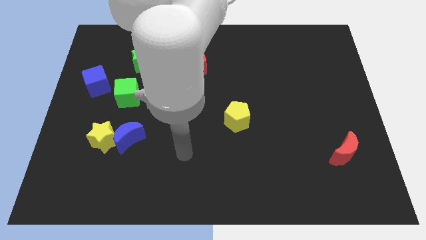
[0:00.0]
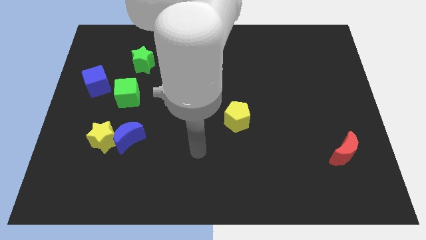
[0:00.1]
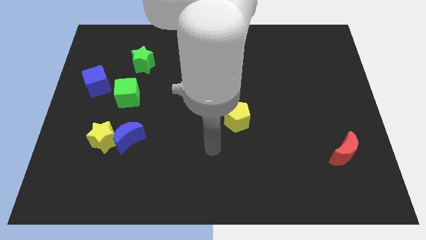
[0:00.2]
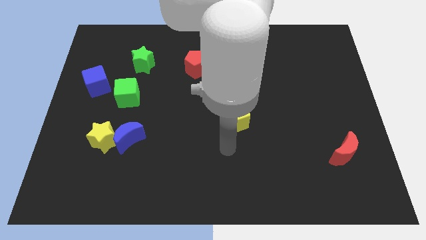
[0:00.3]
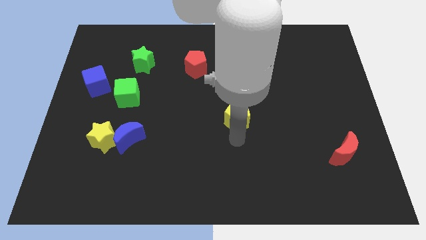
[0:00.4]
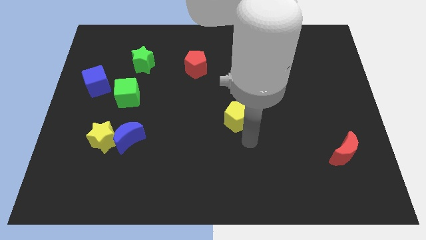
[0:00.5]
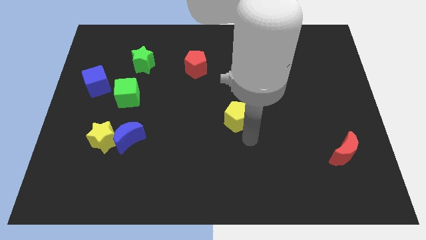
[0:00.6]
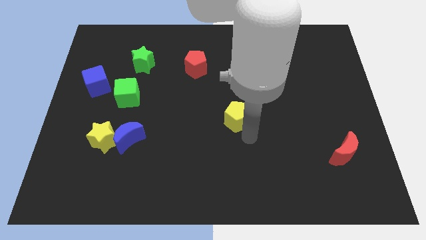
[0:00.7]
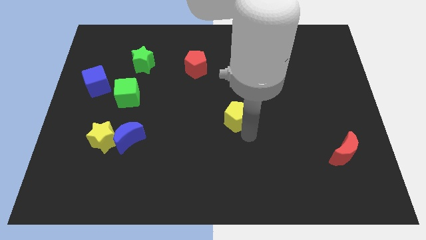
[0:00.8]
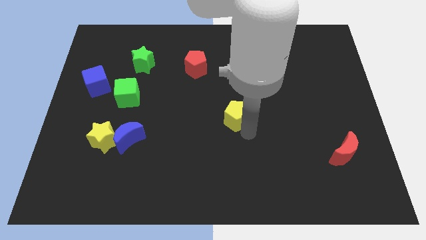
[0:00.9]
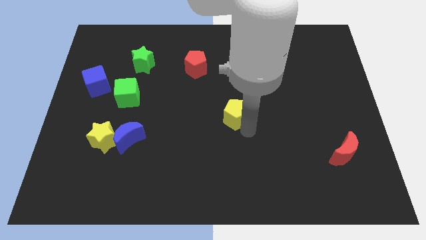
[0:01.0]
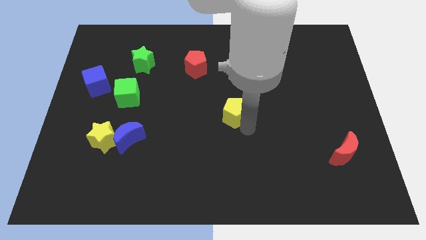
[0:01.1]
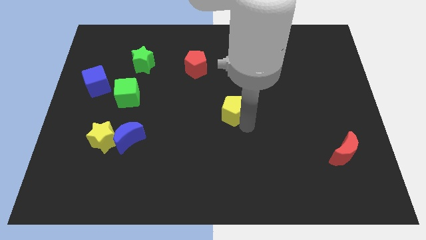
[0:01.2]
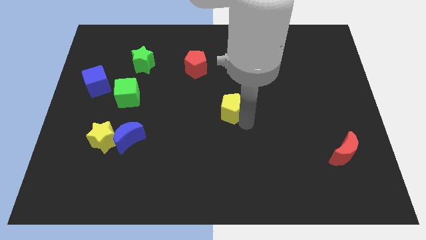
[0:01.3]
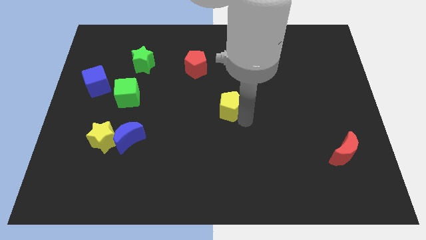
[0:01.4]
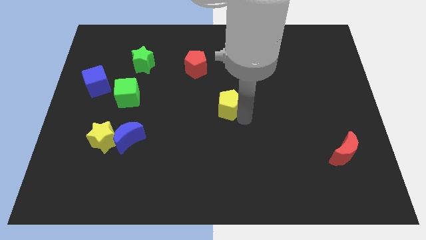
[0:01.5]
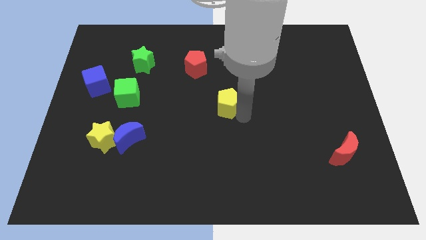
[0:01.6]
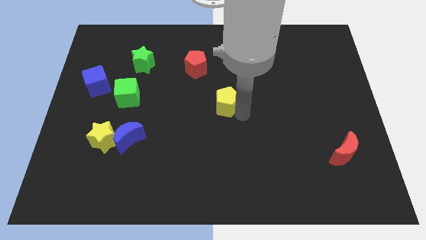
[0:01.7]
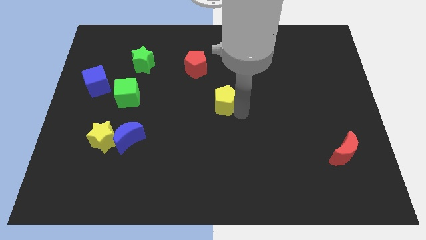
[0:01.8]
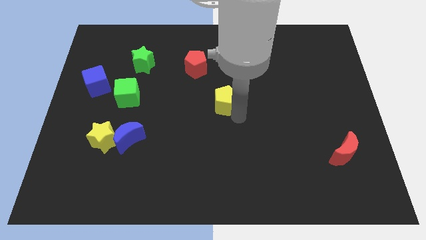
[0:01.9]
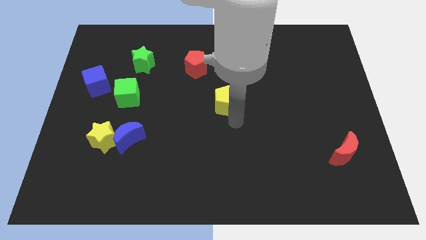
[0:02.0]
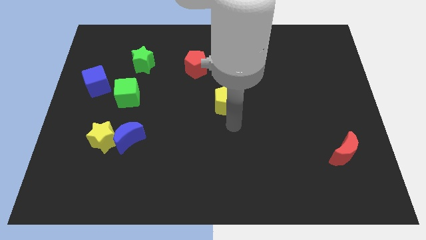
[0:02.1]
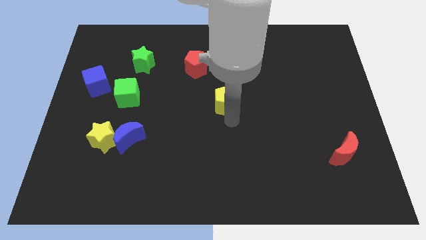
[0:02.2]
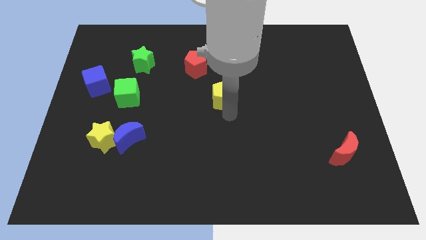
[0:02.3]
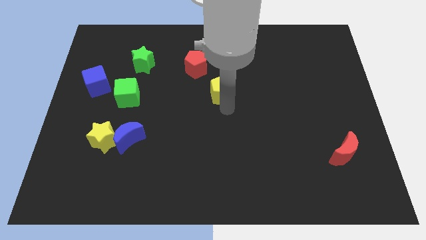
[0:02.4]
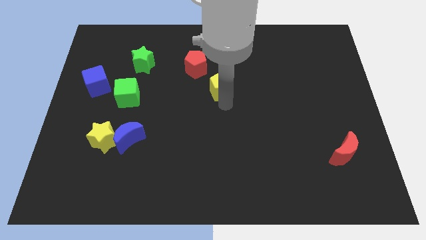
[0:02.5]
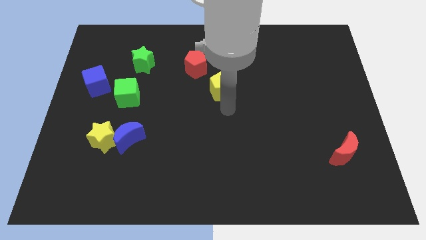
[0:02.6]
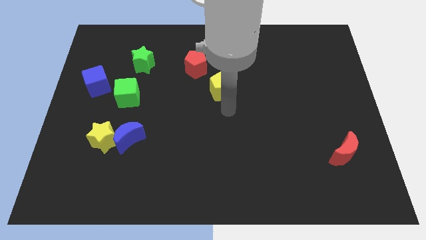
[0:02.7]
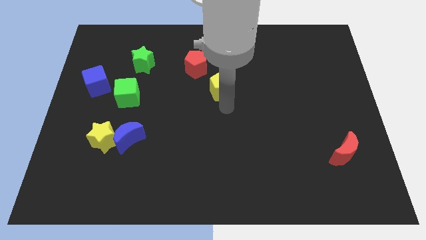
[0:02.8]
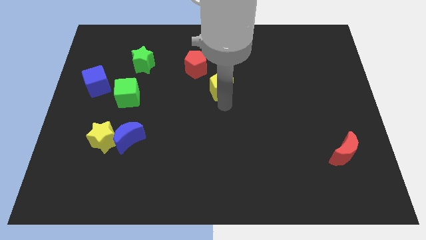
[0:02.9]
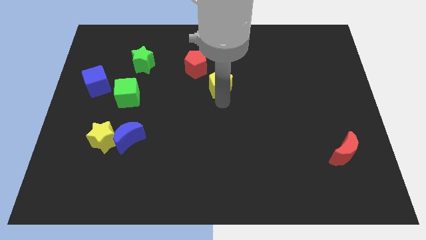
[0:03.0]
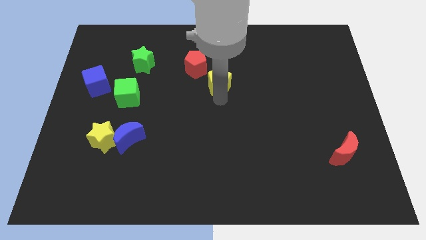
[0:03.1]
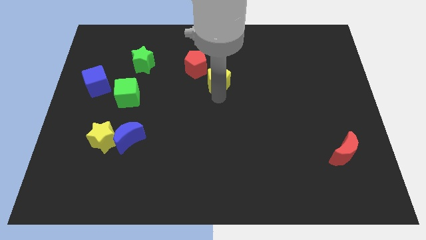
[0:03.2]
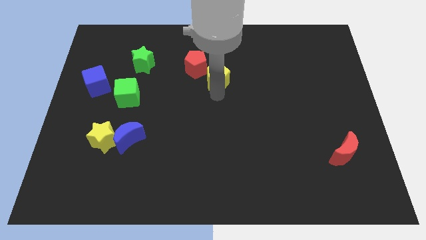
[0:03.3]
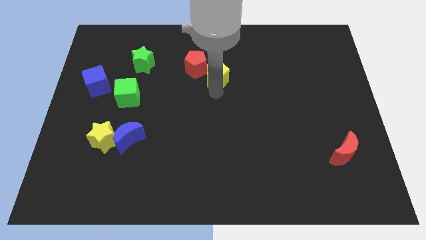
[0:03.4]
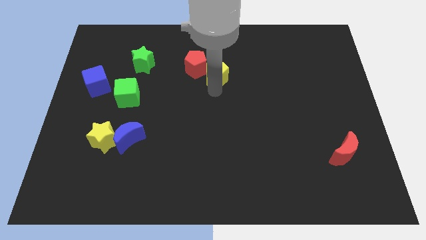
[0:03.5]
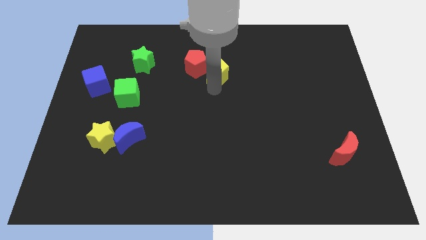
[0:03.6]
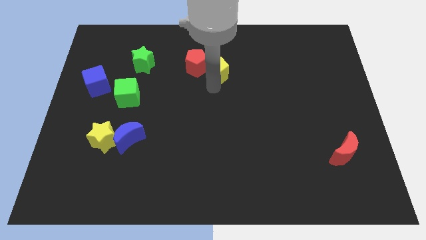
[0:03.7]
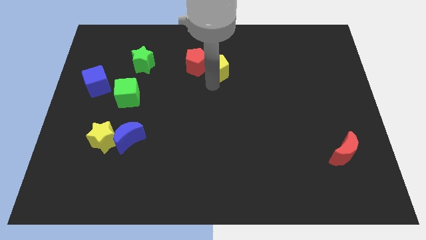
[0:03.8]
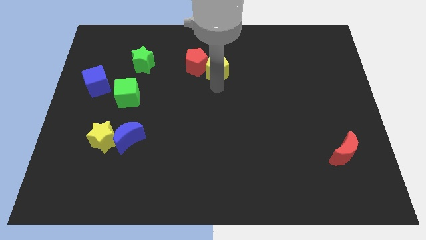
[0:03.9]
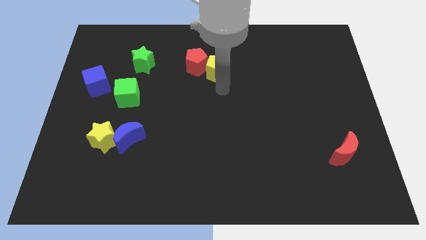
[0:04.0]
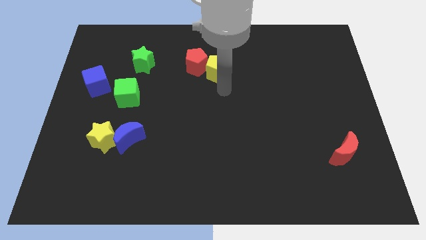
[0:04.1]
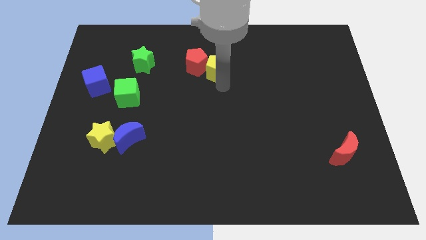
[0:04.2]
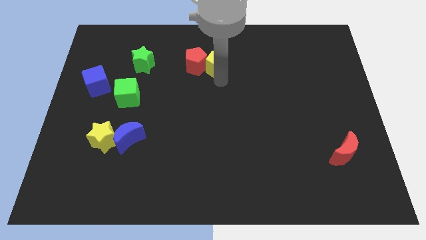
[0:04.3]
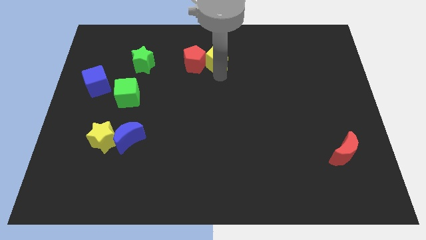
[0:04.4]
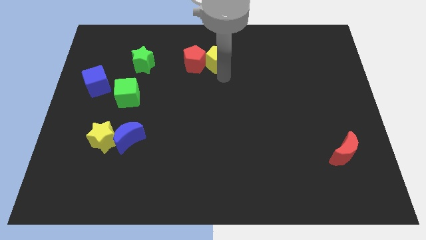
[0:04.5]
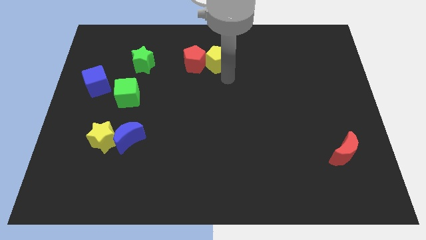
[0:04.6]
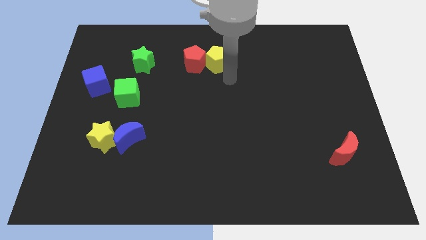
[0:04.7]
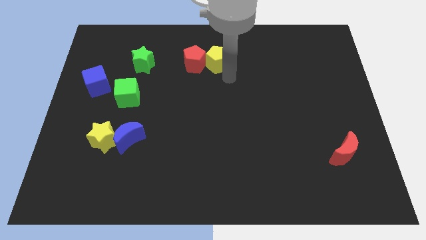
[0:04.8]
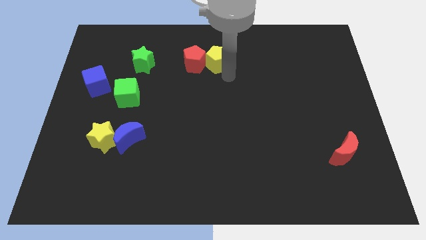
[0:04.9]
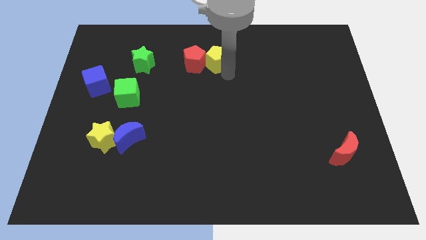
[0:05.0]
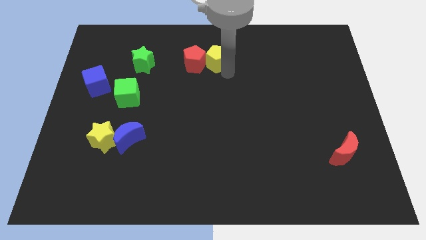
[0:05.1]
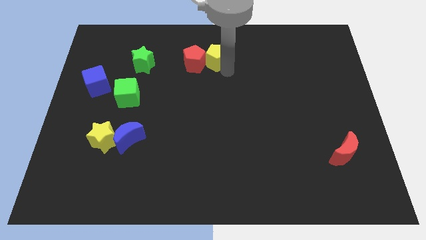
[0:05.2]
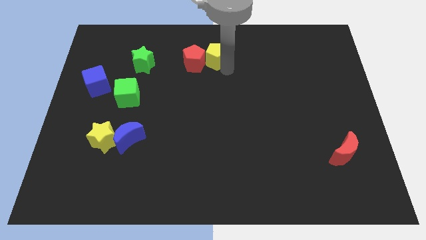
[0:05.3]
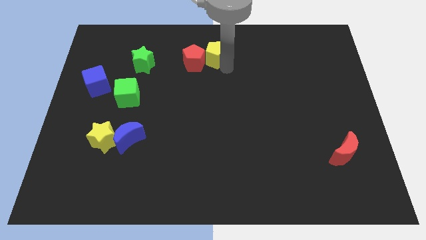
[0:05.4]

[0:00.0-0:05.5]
push the yellow pentagon to the top side
